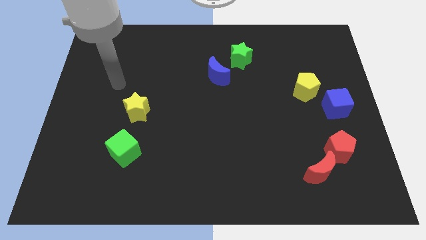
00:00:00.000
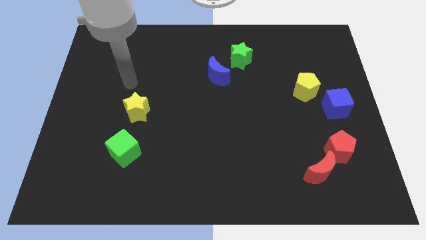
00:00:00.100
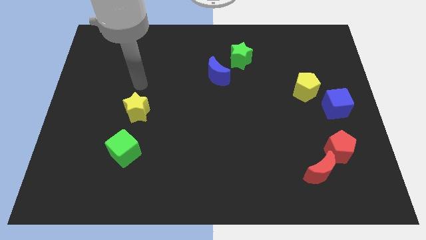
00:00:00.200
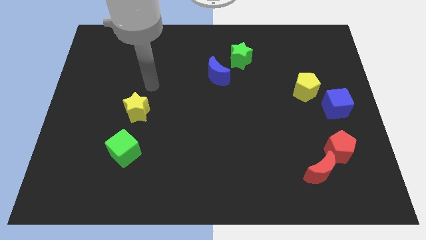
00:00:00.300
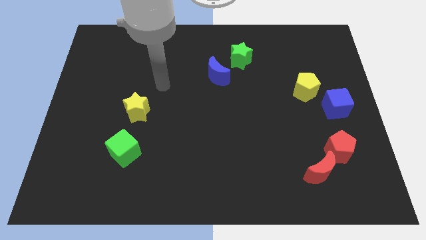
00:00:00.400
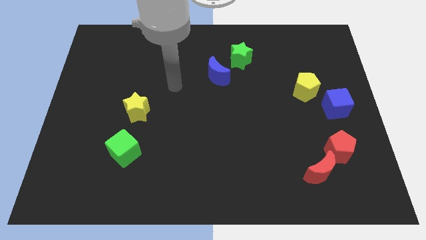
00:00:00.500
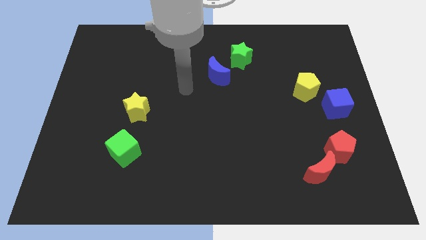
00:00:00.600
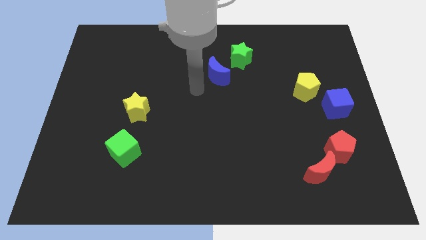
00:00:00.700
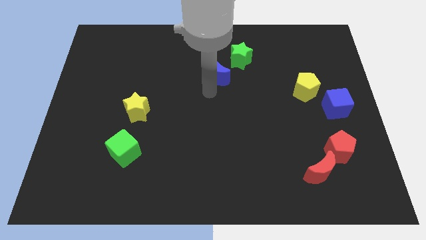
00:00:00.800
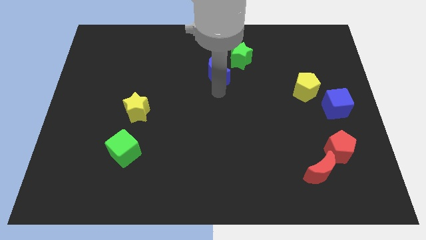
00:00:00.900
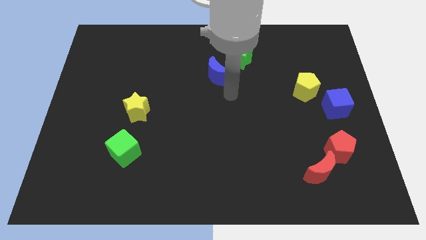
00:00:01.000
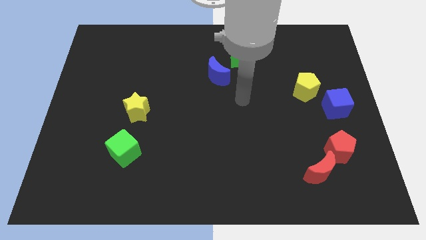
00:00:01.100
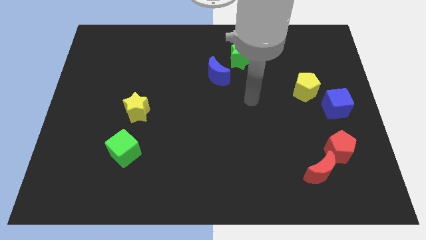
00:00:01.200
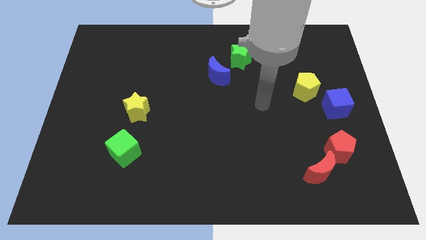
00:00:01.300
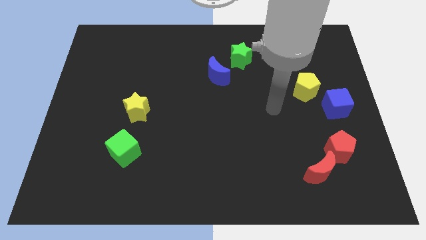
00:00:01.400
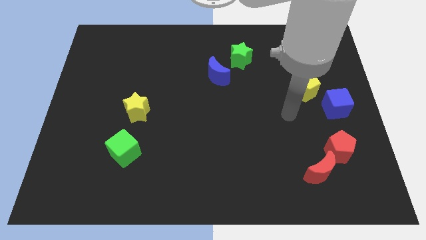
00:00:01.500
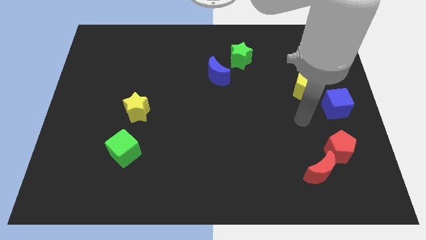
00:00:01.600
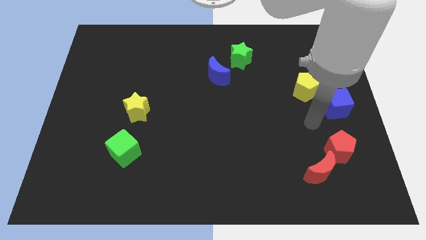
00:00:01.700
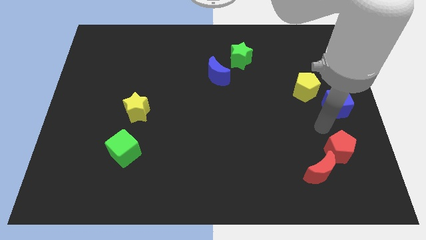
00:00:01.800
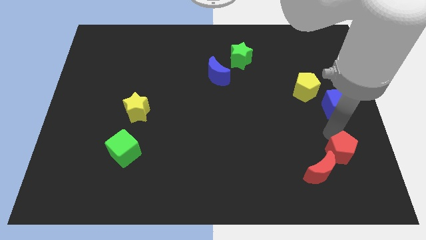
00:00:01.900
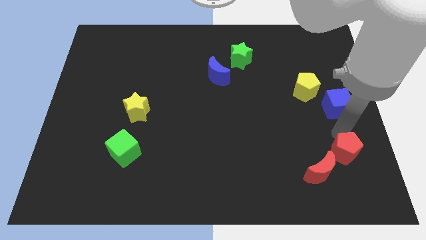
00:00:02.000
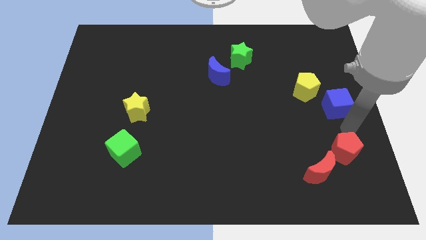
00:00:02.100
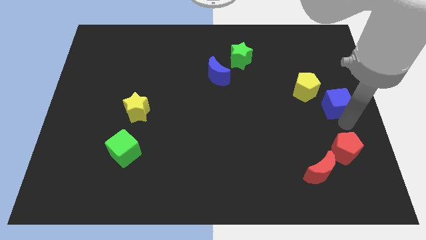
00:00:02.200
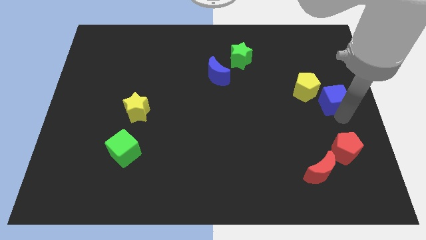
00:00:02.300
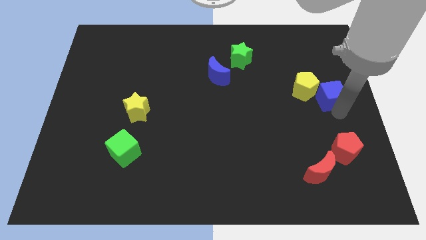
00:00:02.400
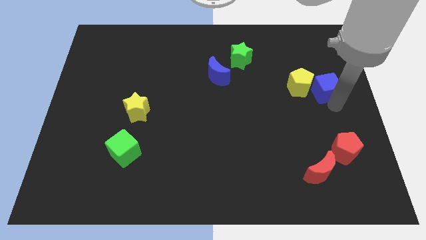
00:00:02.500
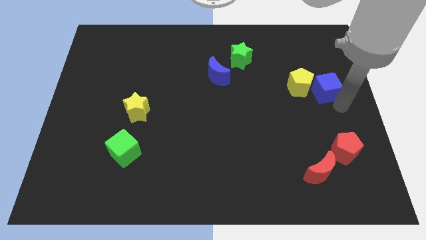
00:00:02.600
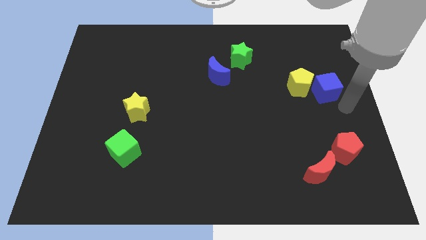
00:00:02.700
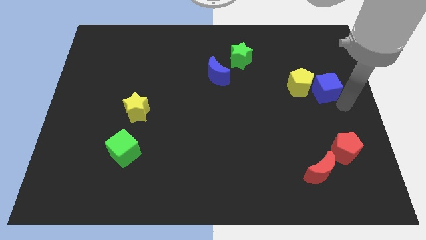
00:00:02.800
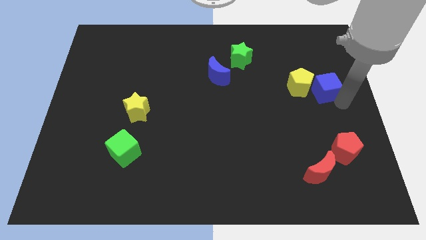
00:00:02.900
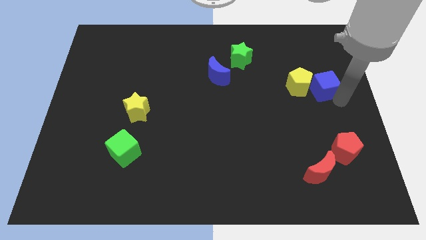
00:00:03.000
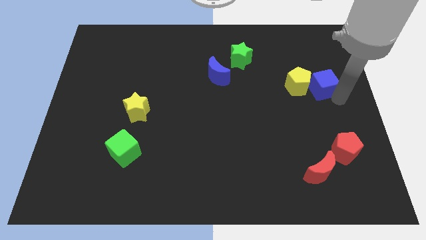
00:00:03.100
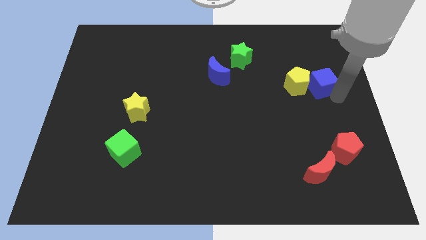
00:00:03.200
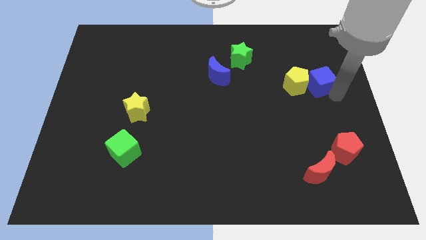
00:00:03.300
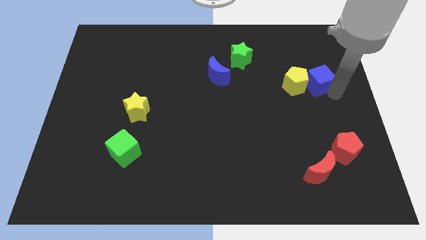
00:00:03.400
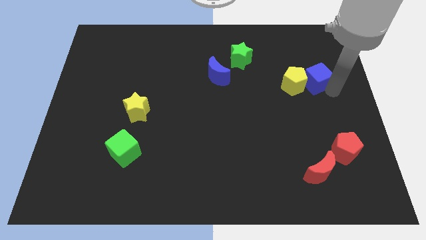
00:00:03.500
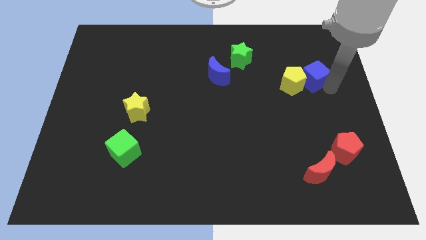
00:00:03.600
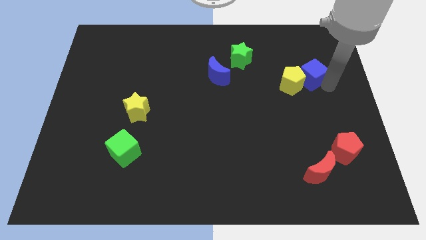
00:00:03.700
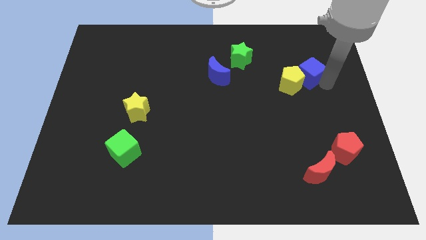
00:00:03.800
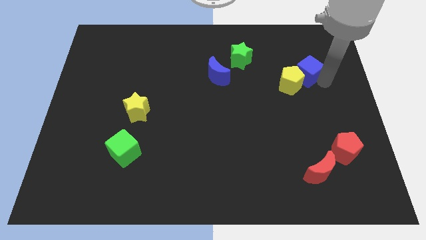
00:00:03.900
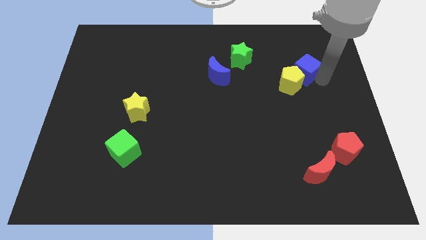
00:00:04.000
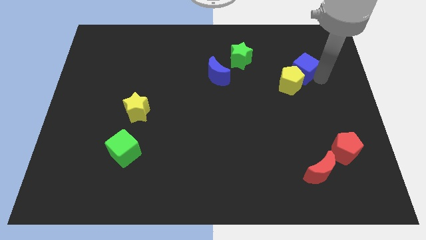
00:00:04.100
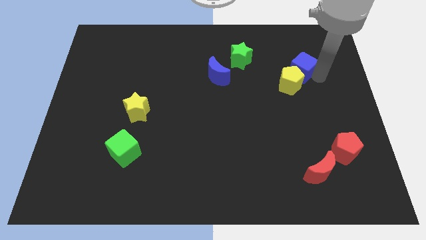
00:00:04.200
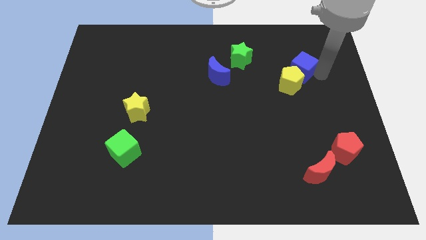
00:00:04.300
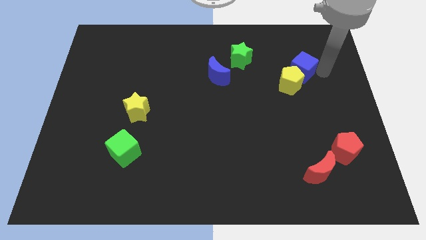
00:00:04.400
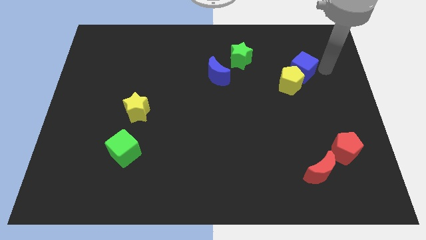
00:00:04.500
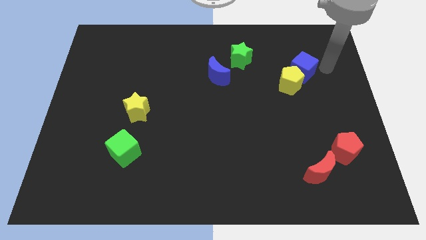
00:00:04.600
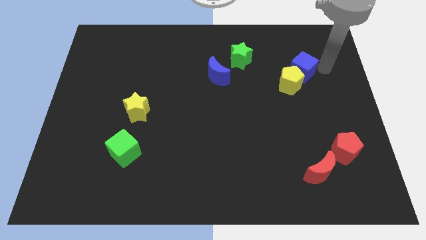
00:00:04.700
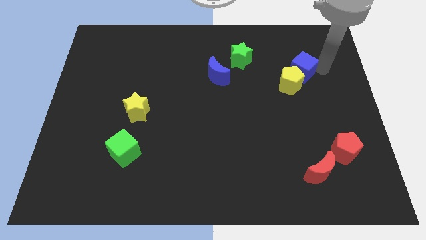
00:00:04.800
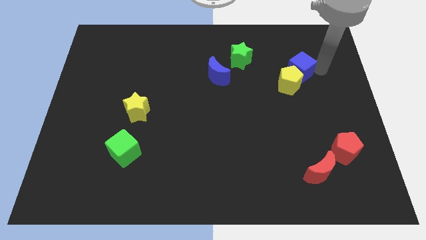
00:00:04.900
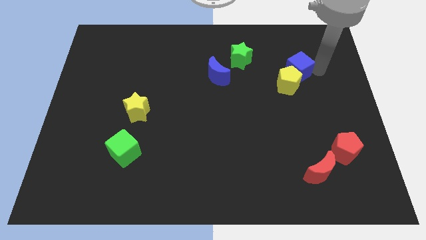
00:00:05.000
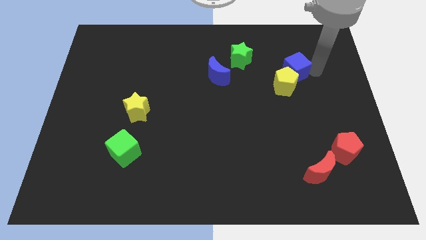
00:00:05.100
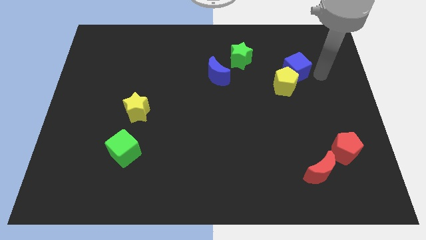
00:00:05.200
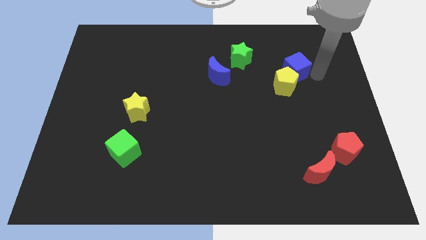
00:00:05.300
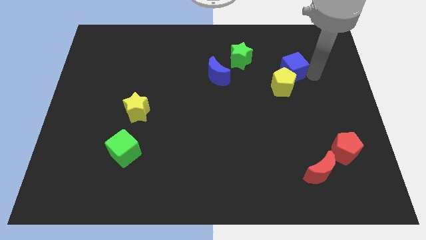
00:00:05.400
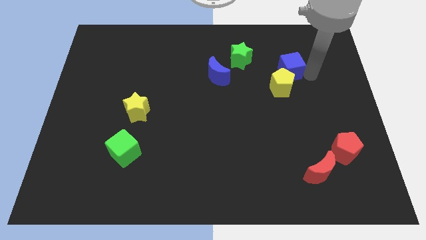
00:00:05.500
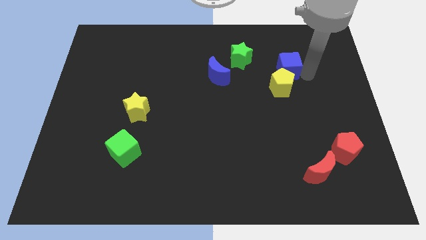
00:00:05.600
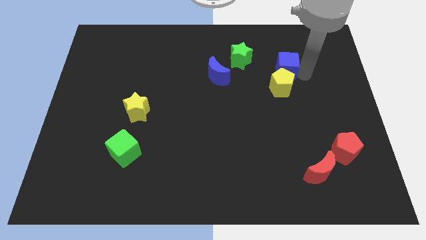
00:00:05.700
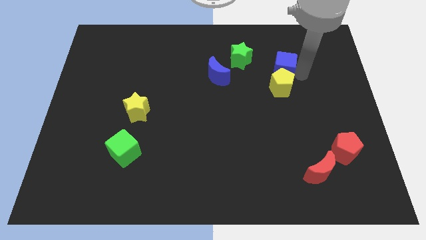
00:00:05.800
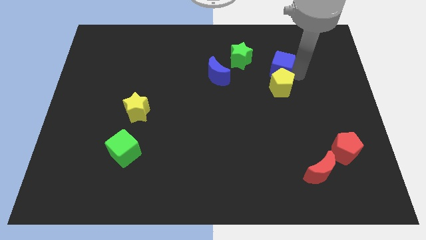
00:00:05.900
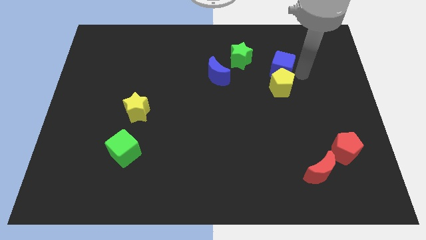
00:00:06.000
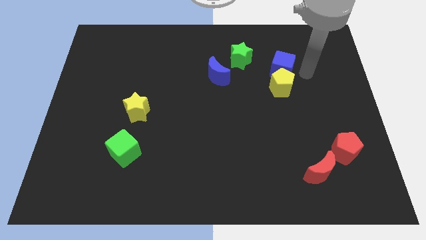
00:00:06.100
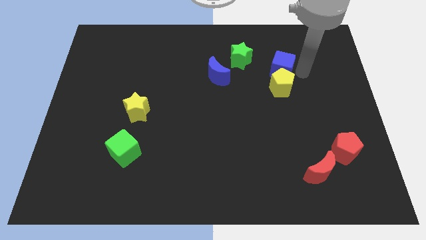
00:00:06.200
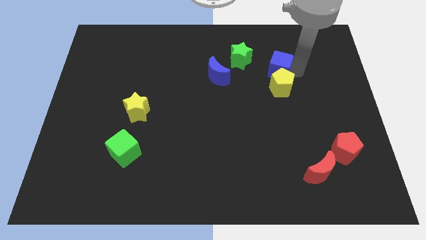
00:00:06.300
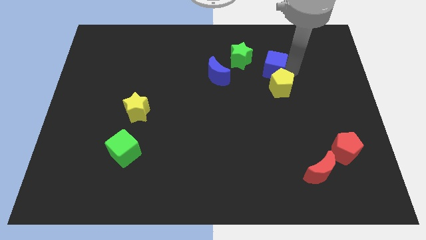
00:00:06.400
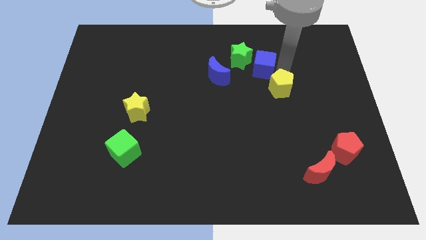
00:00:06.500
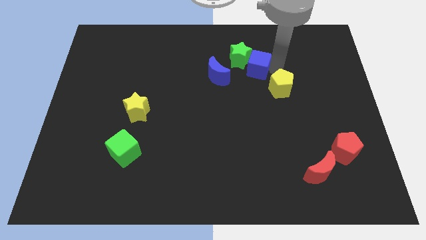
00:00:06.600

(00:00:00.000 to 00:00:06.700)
put the blue cube towards the green star
